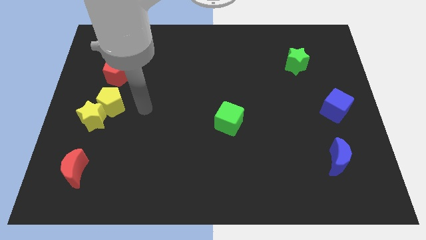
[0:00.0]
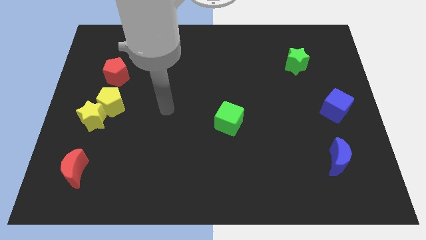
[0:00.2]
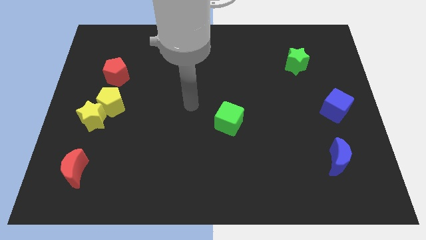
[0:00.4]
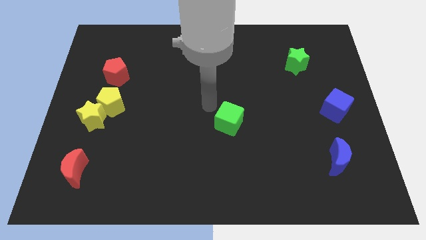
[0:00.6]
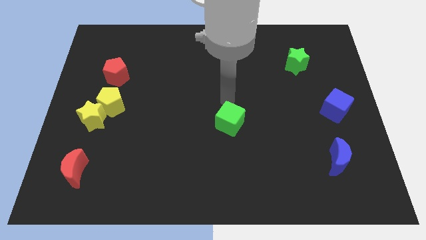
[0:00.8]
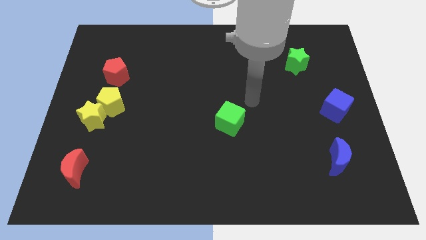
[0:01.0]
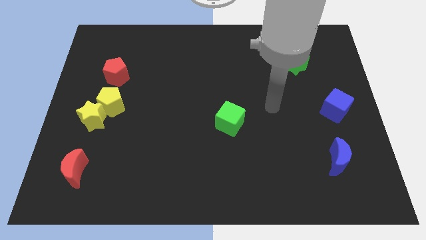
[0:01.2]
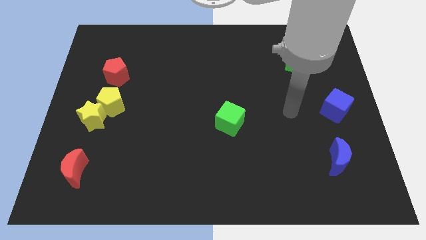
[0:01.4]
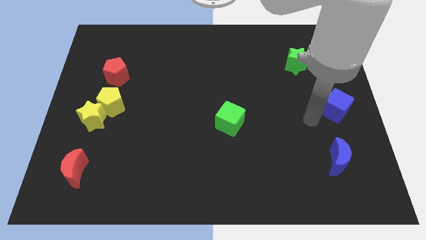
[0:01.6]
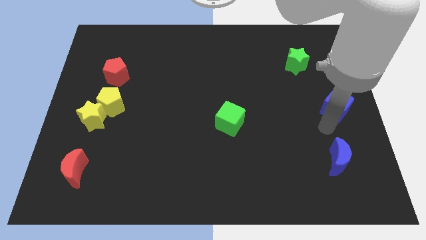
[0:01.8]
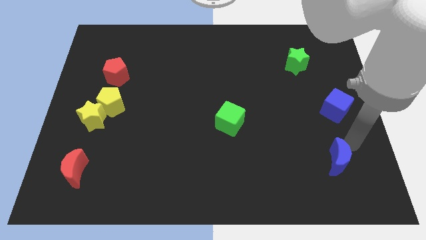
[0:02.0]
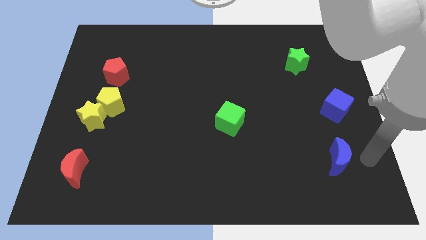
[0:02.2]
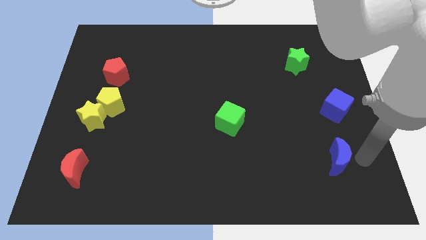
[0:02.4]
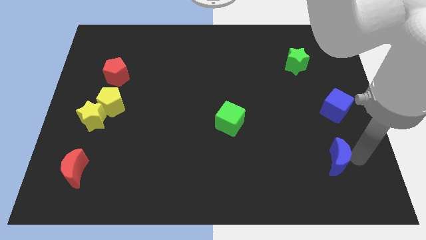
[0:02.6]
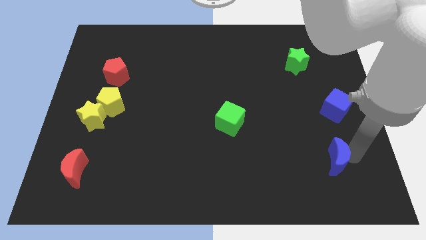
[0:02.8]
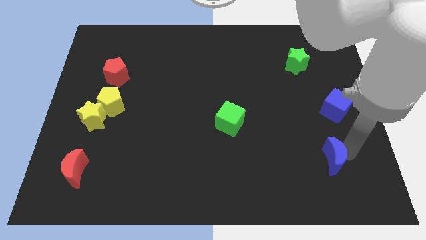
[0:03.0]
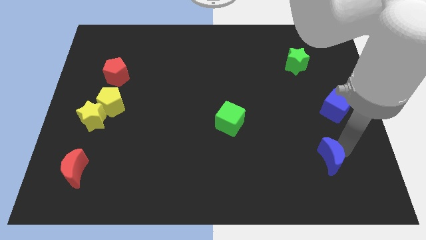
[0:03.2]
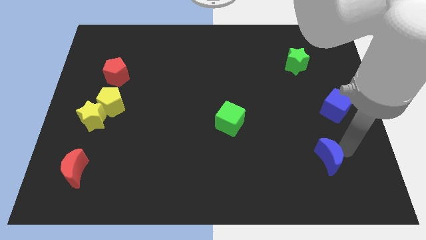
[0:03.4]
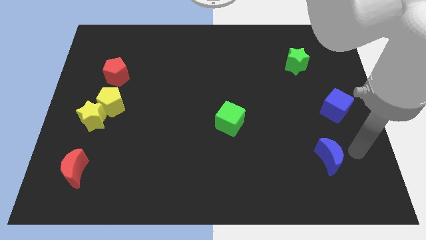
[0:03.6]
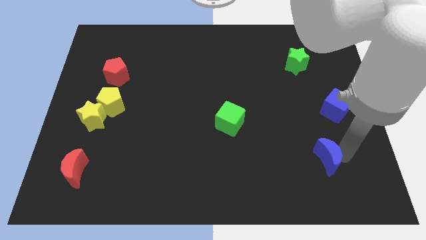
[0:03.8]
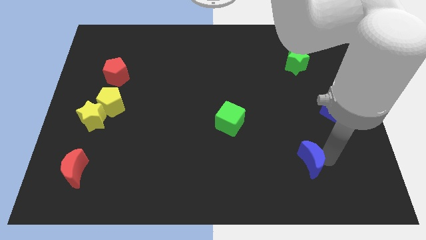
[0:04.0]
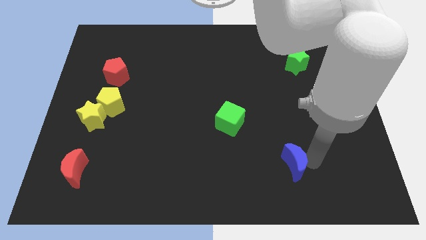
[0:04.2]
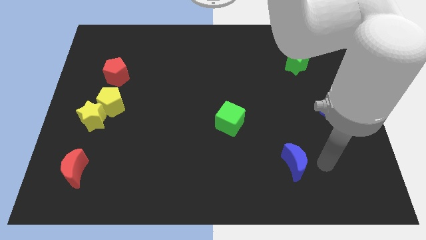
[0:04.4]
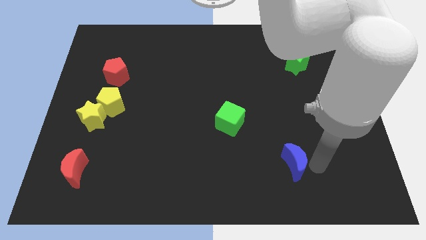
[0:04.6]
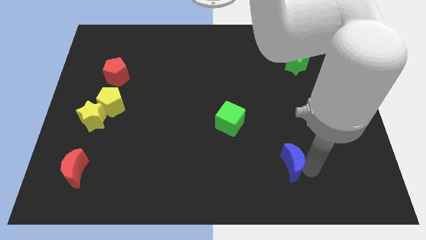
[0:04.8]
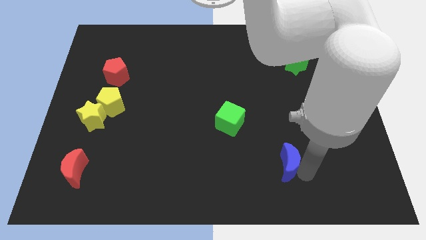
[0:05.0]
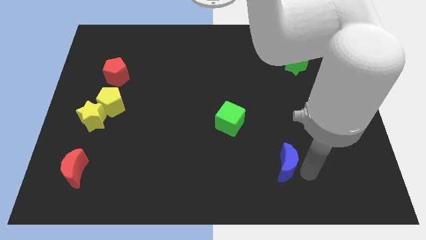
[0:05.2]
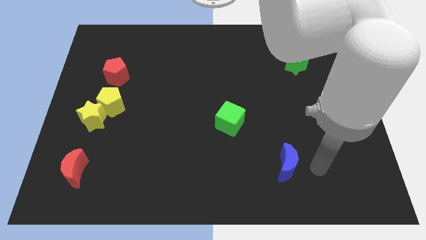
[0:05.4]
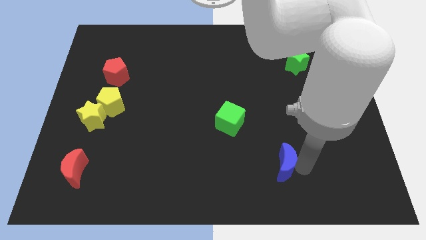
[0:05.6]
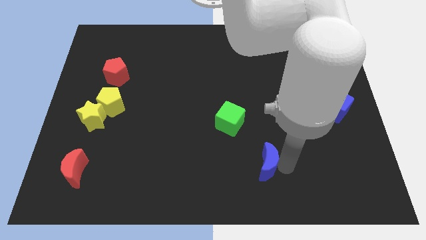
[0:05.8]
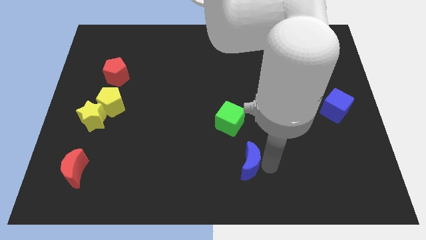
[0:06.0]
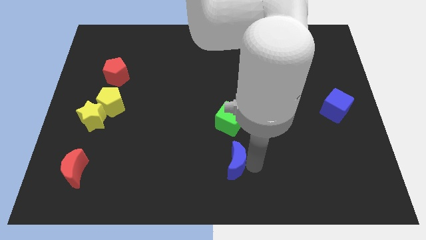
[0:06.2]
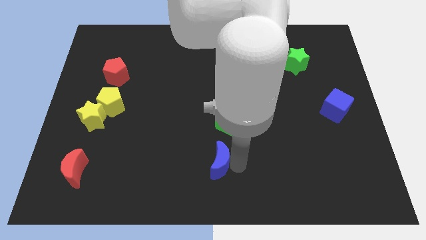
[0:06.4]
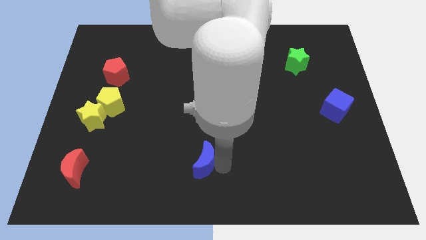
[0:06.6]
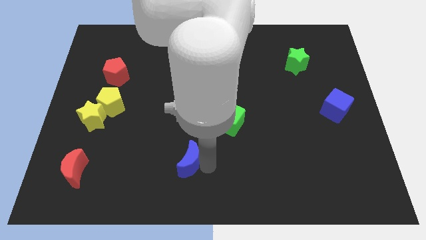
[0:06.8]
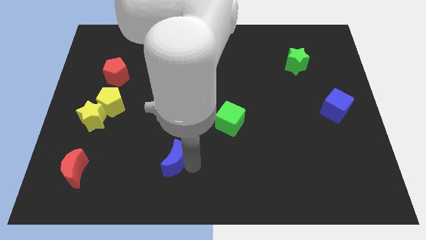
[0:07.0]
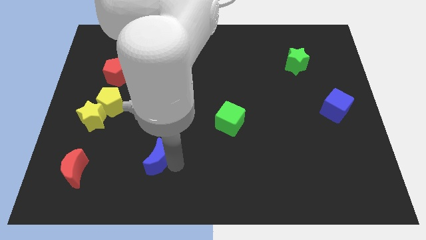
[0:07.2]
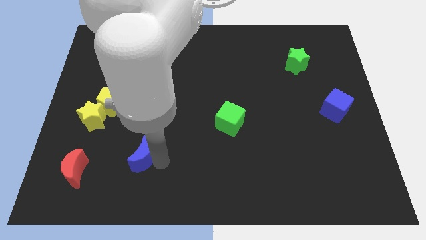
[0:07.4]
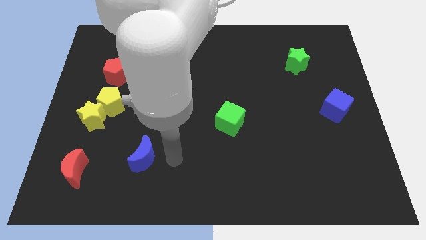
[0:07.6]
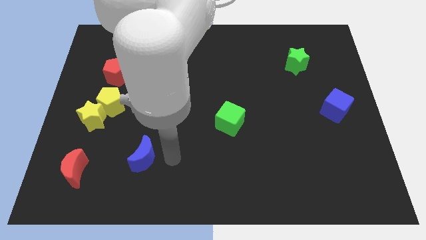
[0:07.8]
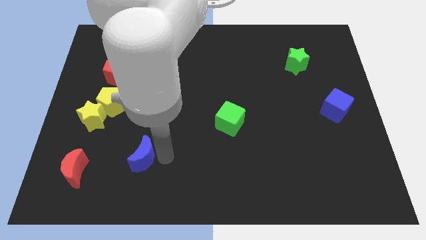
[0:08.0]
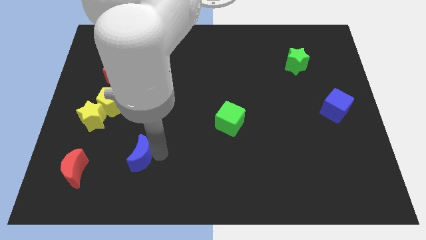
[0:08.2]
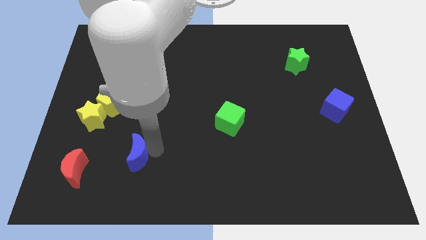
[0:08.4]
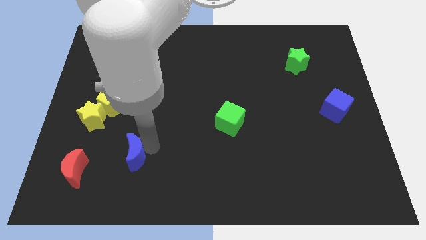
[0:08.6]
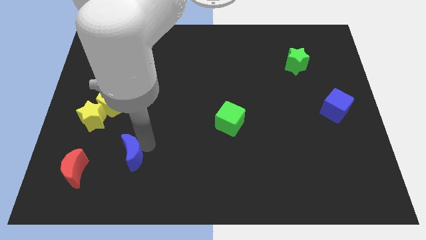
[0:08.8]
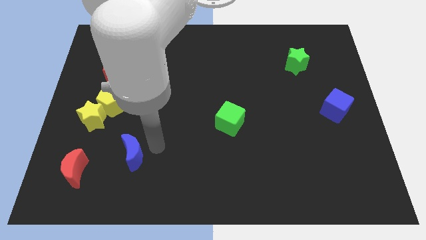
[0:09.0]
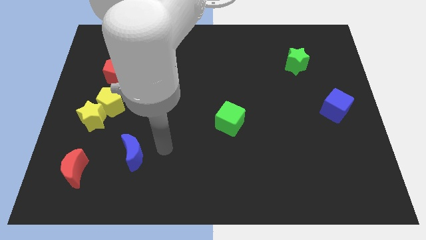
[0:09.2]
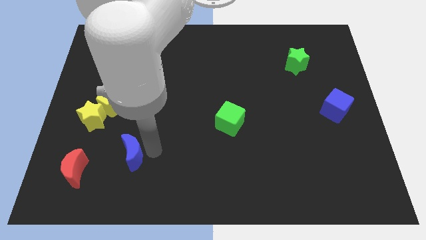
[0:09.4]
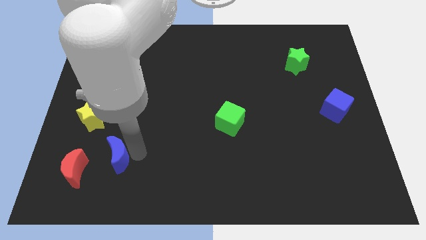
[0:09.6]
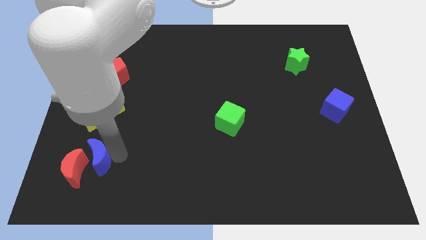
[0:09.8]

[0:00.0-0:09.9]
push the blue moon close to the red moon

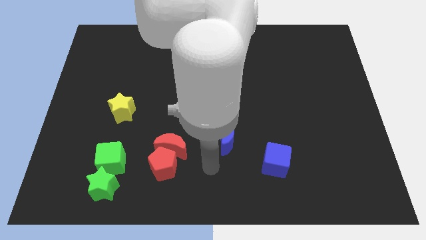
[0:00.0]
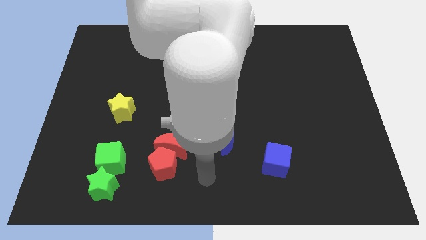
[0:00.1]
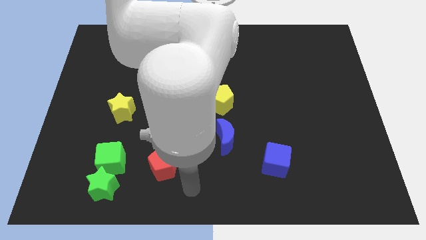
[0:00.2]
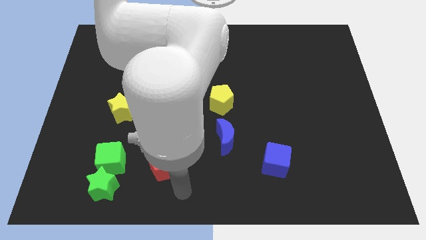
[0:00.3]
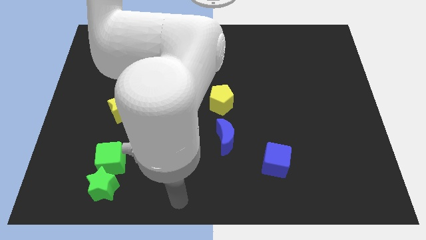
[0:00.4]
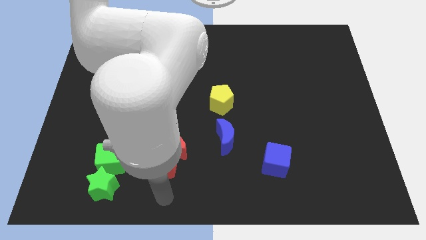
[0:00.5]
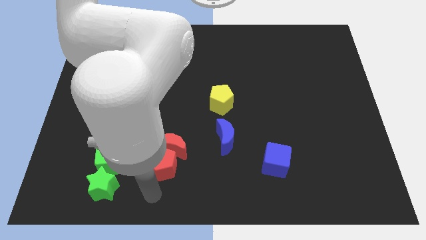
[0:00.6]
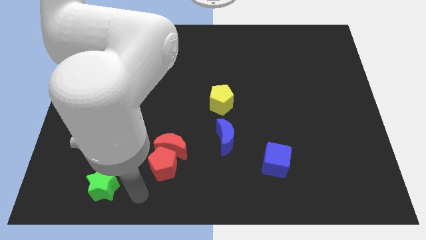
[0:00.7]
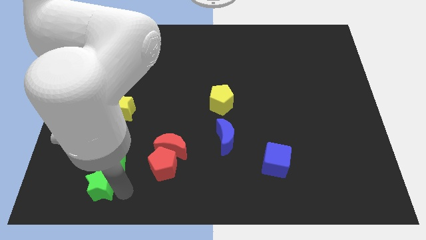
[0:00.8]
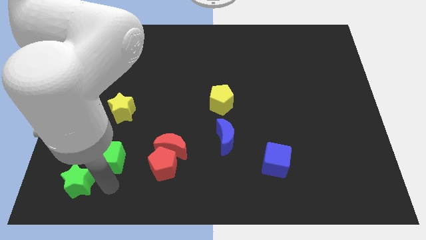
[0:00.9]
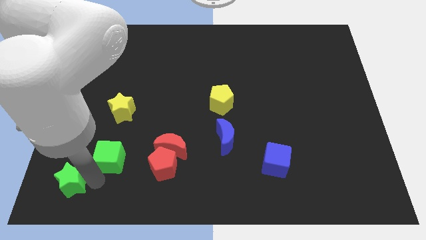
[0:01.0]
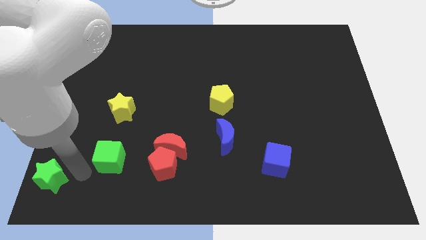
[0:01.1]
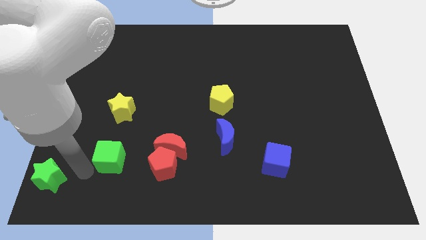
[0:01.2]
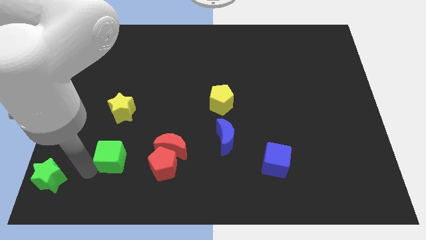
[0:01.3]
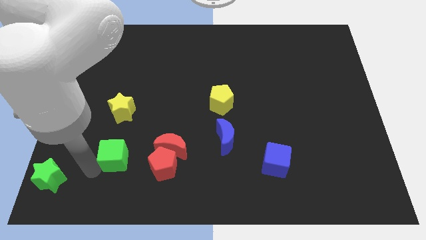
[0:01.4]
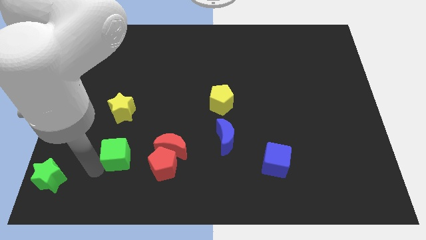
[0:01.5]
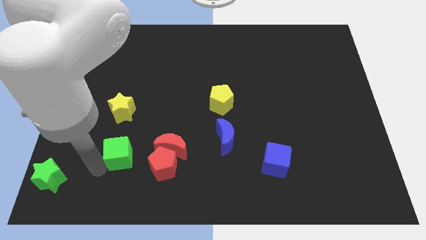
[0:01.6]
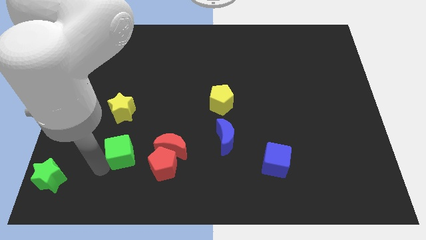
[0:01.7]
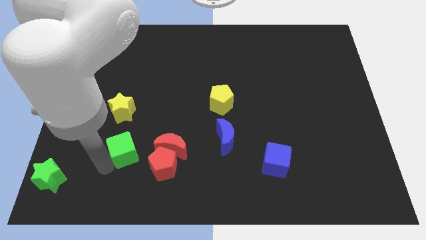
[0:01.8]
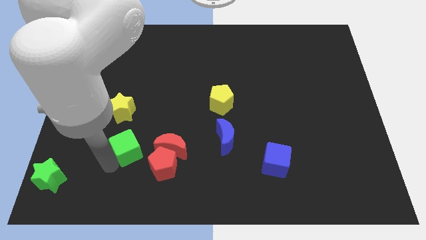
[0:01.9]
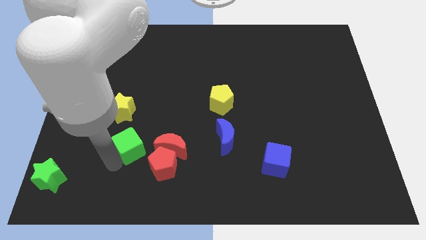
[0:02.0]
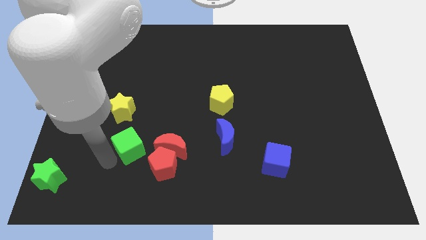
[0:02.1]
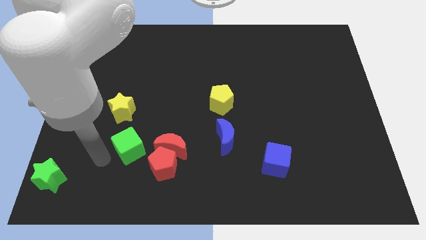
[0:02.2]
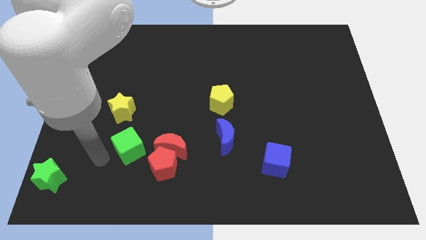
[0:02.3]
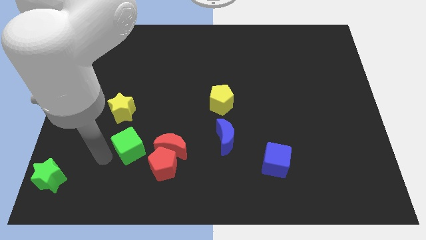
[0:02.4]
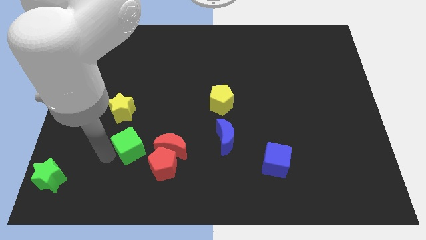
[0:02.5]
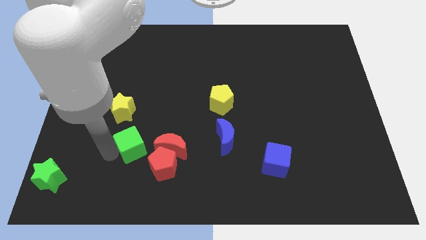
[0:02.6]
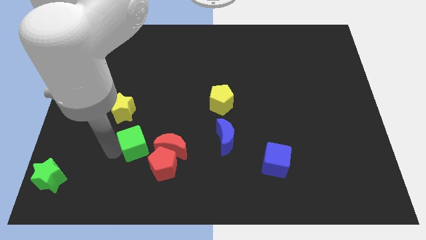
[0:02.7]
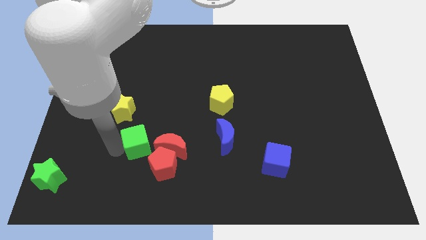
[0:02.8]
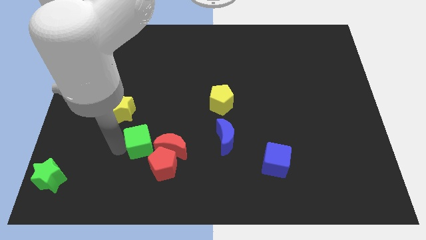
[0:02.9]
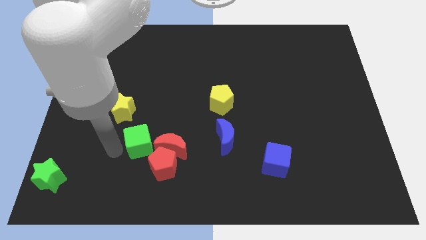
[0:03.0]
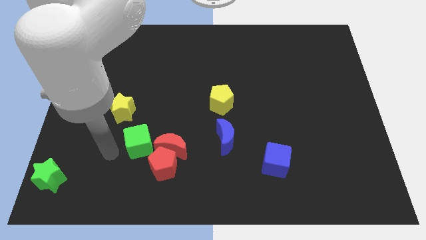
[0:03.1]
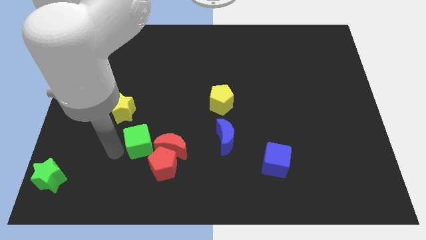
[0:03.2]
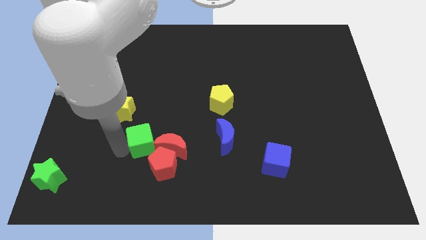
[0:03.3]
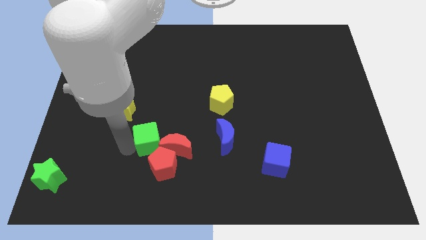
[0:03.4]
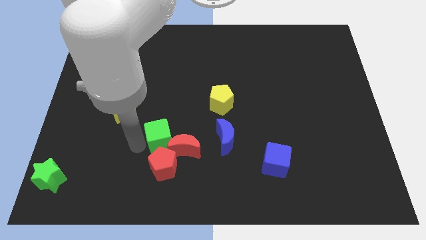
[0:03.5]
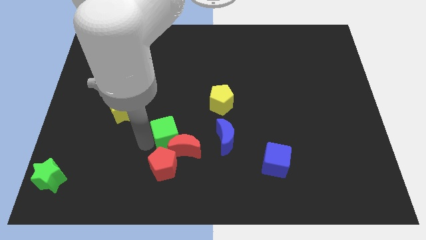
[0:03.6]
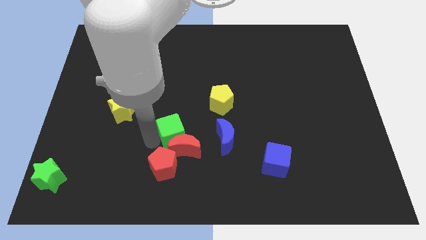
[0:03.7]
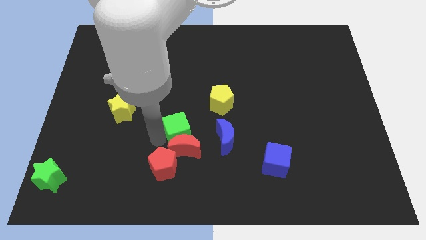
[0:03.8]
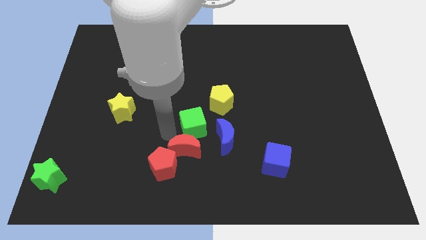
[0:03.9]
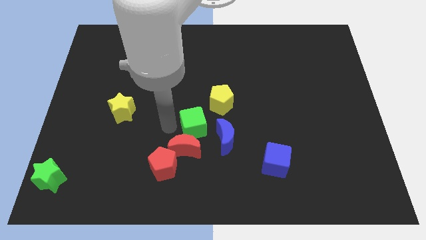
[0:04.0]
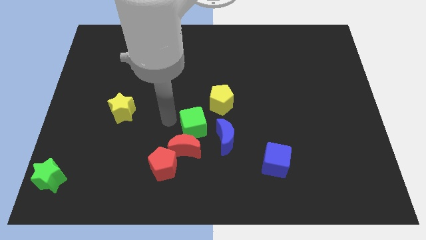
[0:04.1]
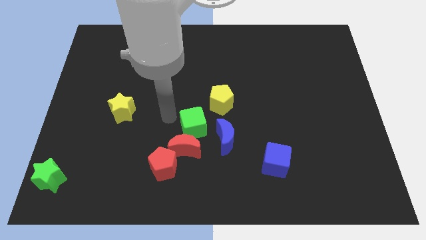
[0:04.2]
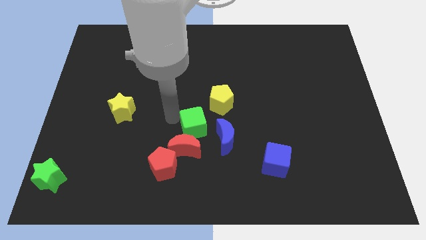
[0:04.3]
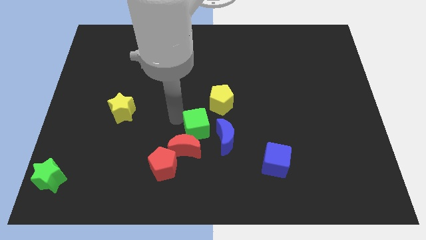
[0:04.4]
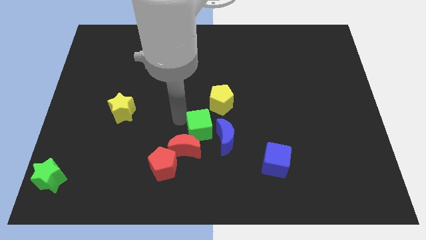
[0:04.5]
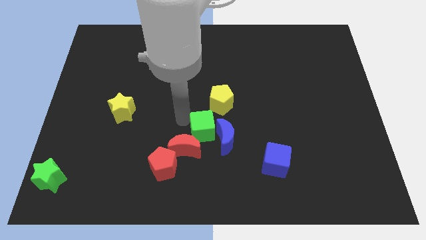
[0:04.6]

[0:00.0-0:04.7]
slide the green cube close to the blue moon
